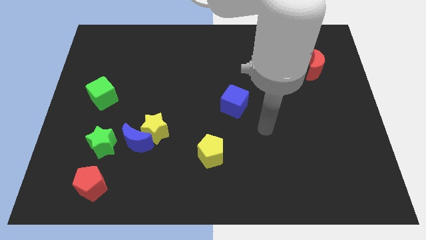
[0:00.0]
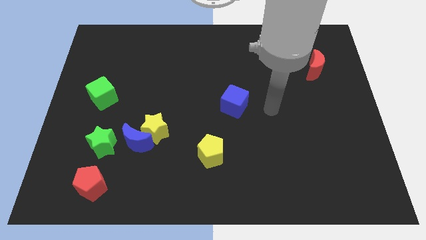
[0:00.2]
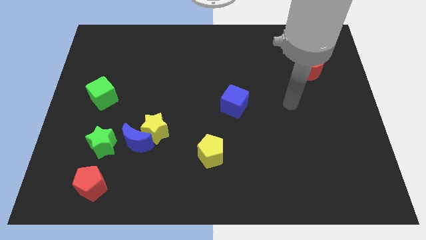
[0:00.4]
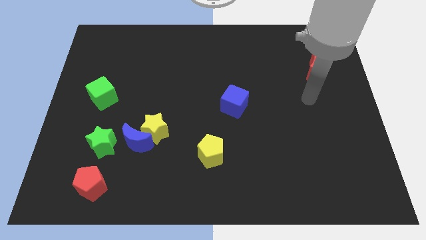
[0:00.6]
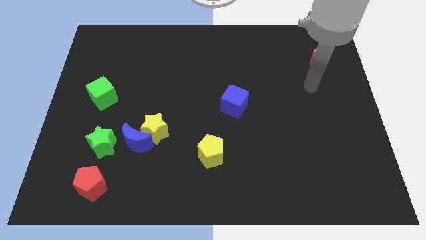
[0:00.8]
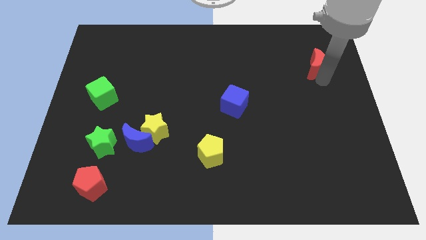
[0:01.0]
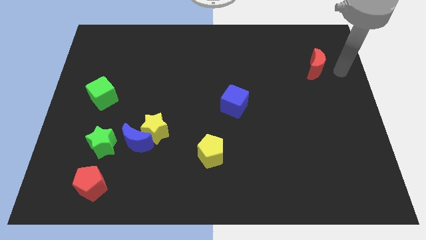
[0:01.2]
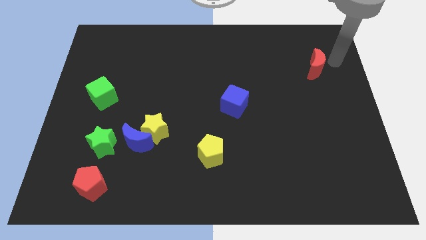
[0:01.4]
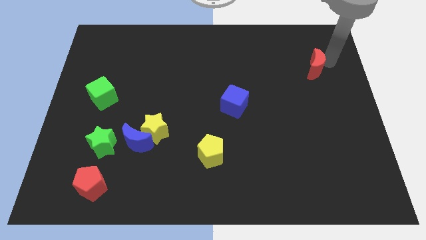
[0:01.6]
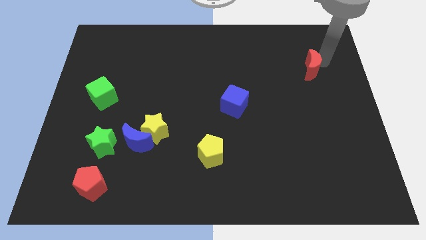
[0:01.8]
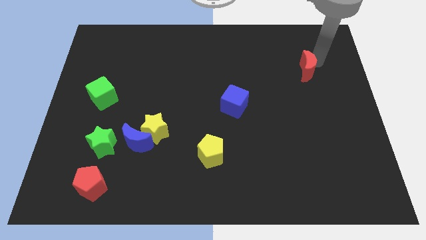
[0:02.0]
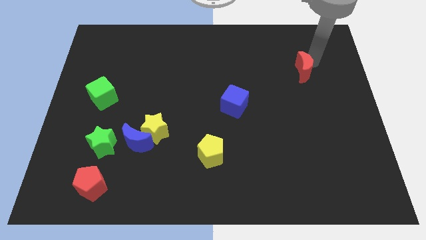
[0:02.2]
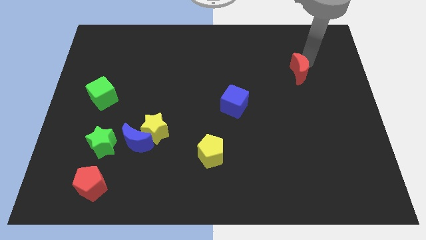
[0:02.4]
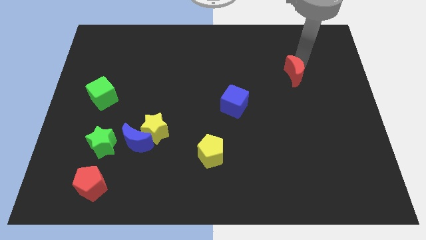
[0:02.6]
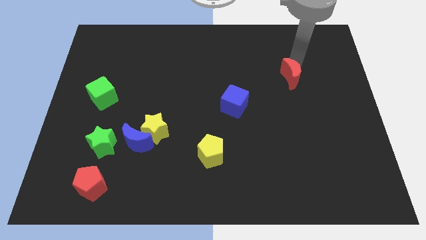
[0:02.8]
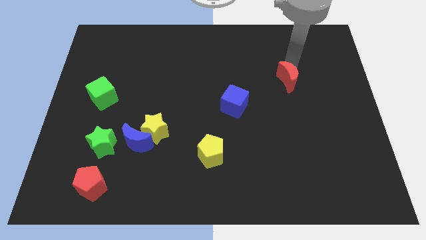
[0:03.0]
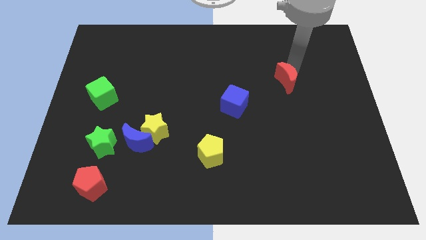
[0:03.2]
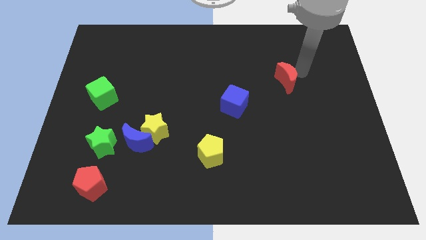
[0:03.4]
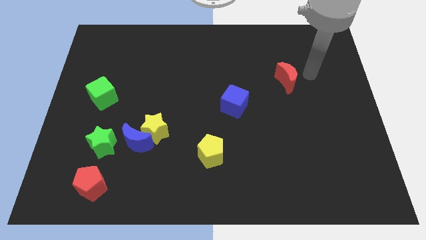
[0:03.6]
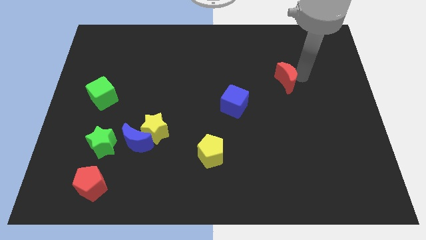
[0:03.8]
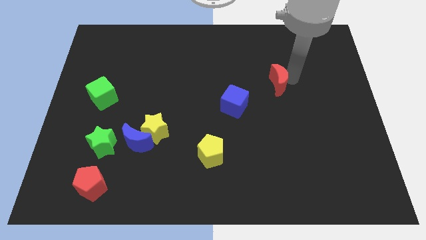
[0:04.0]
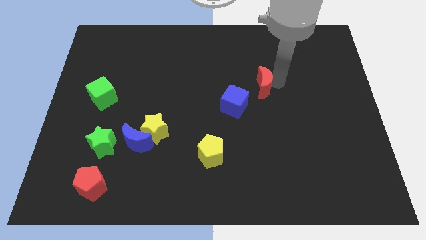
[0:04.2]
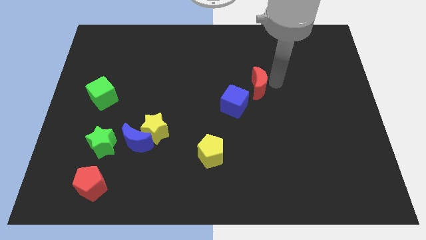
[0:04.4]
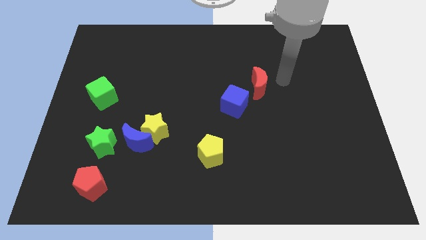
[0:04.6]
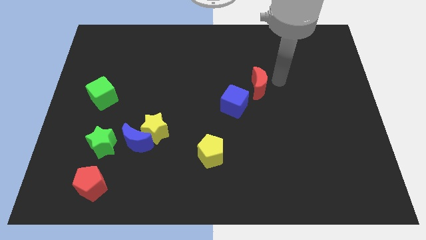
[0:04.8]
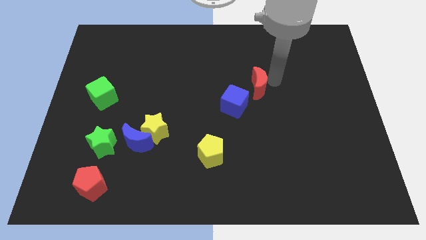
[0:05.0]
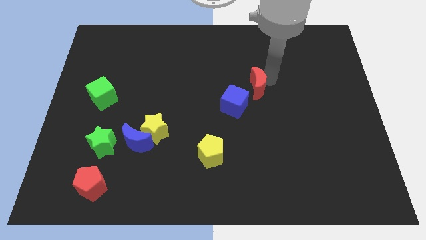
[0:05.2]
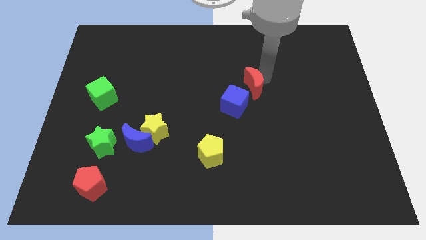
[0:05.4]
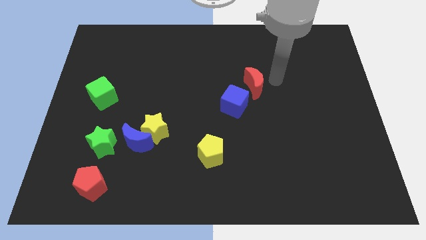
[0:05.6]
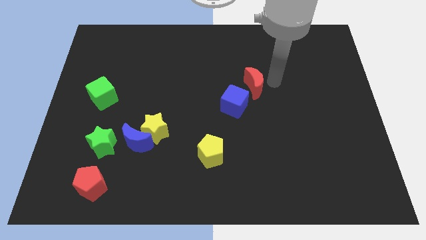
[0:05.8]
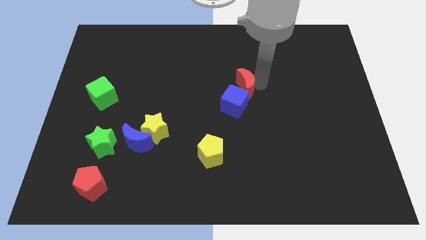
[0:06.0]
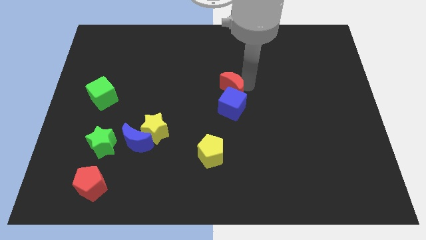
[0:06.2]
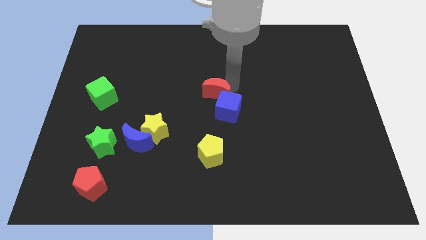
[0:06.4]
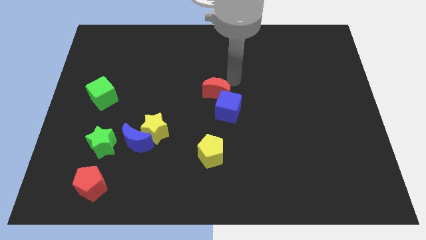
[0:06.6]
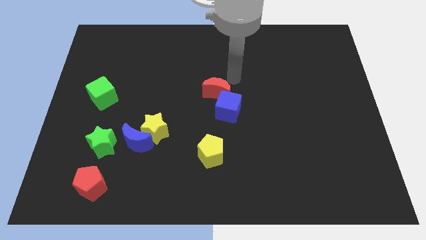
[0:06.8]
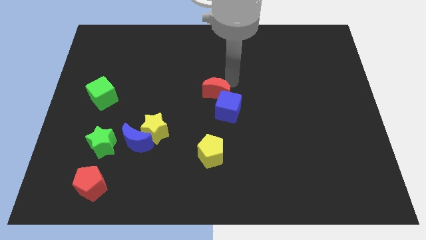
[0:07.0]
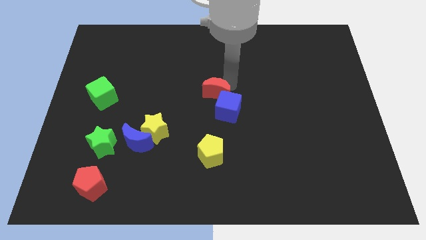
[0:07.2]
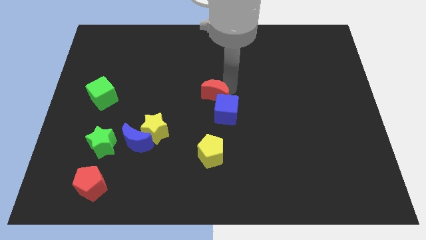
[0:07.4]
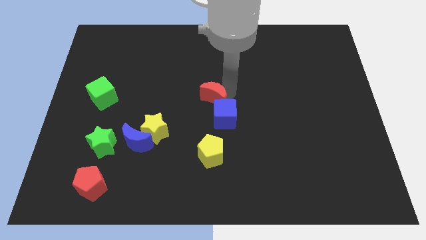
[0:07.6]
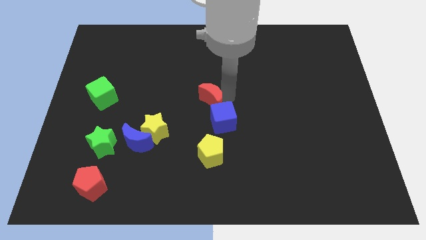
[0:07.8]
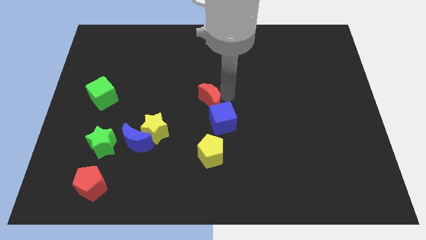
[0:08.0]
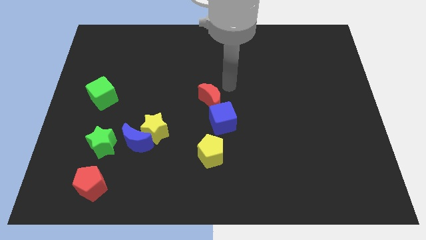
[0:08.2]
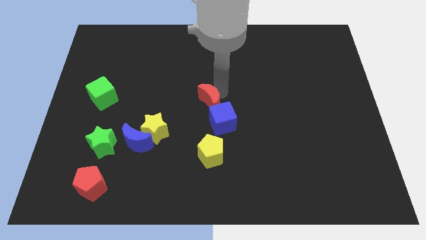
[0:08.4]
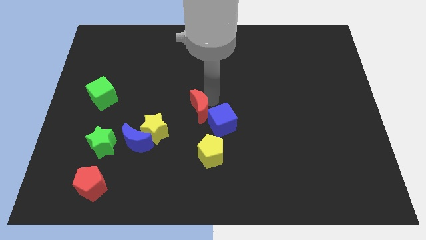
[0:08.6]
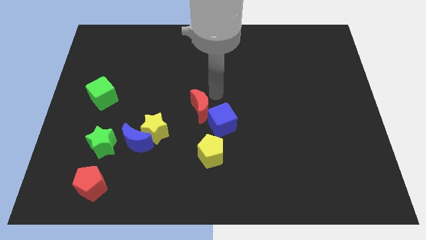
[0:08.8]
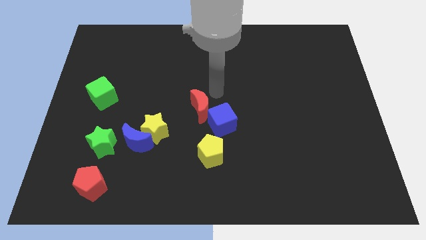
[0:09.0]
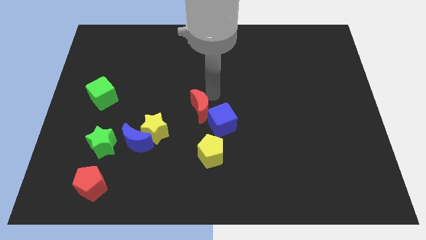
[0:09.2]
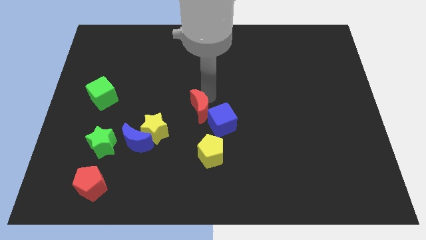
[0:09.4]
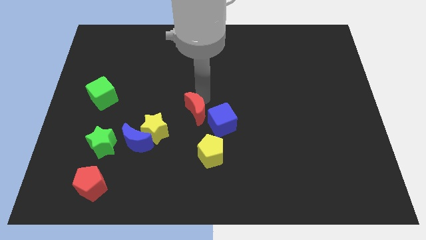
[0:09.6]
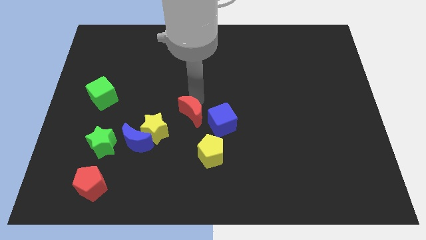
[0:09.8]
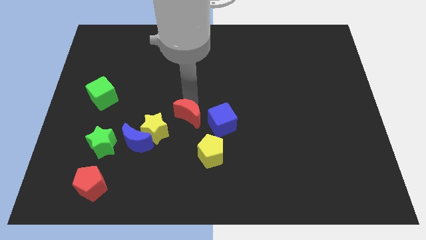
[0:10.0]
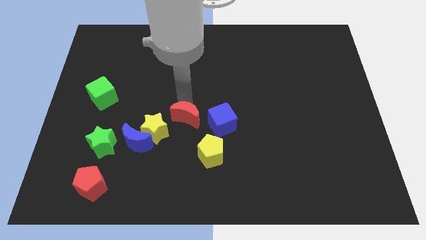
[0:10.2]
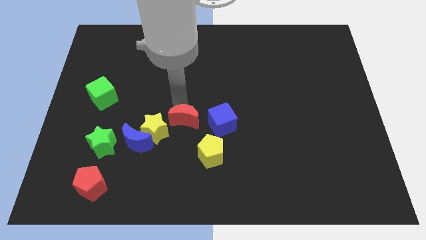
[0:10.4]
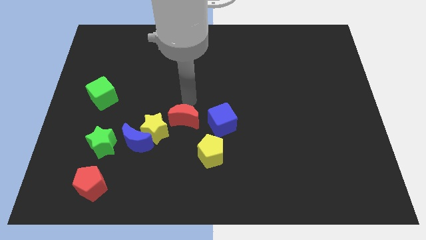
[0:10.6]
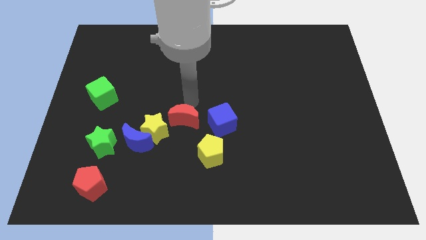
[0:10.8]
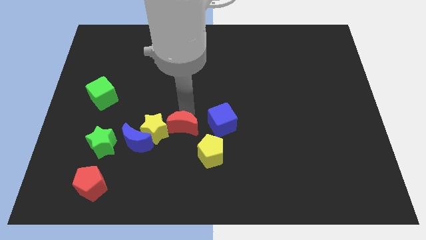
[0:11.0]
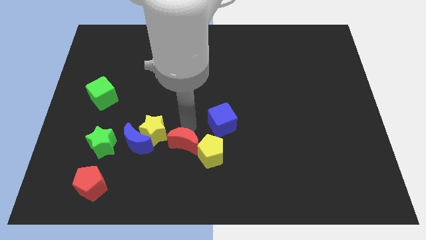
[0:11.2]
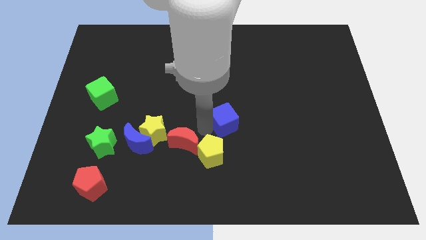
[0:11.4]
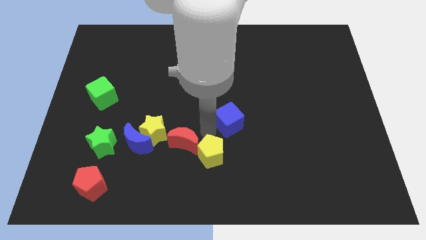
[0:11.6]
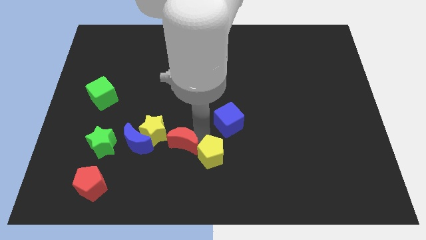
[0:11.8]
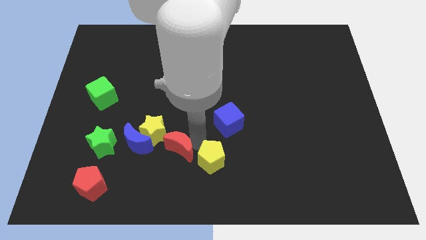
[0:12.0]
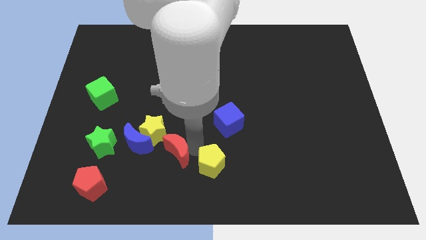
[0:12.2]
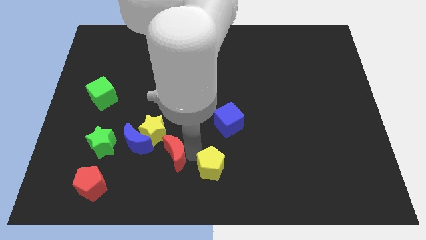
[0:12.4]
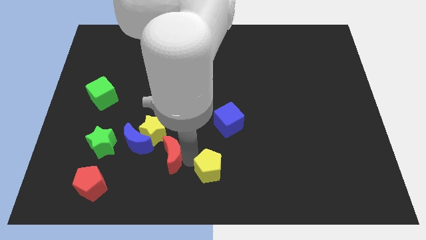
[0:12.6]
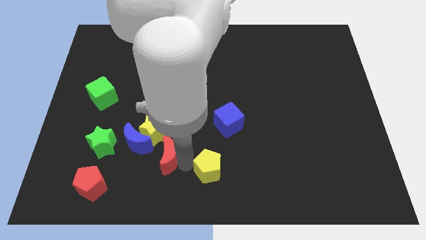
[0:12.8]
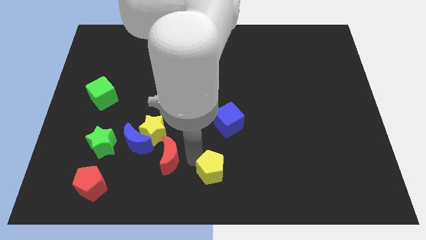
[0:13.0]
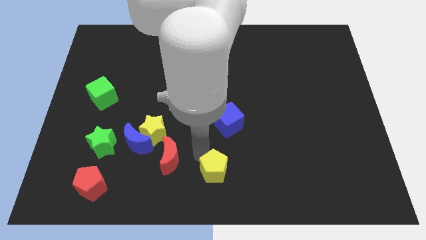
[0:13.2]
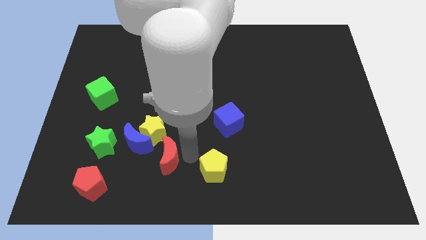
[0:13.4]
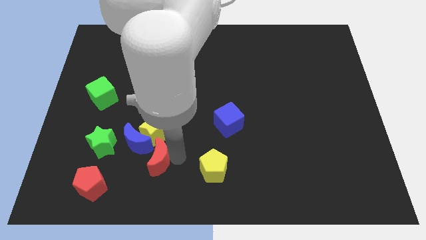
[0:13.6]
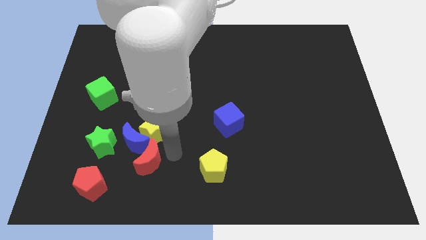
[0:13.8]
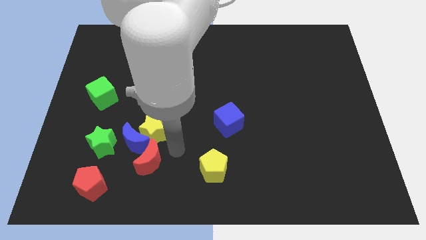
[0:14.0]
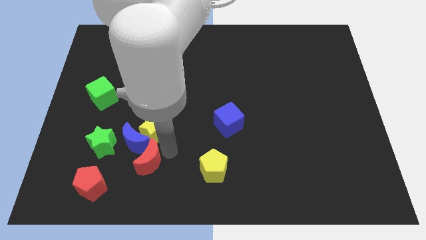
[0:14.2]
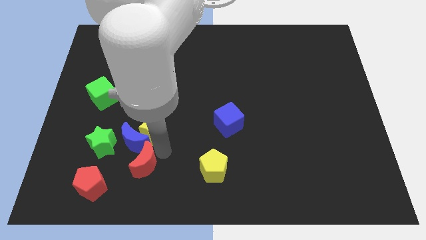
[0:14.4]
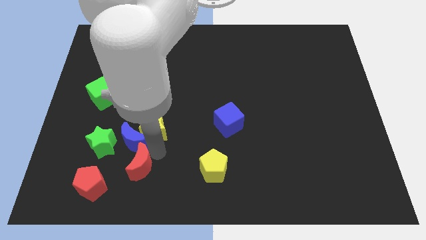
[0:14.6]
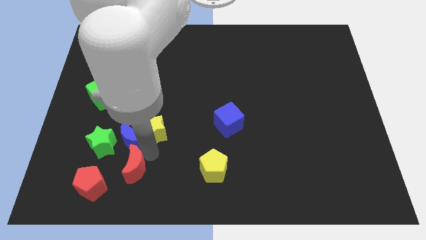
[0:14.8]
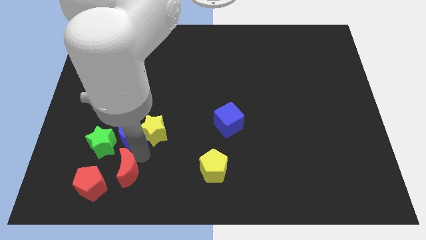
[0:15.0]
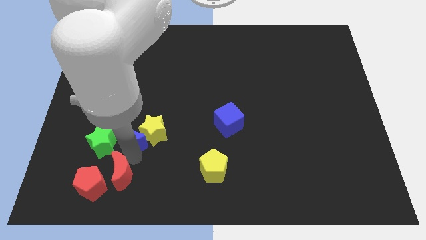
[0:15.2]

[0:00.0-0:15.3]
push the red moon close to the red pentagon
